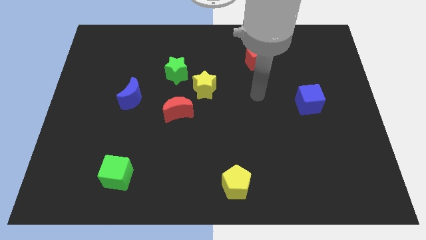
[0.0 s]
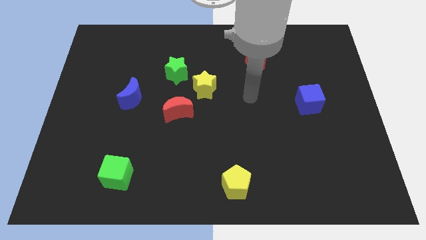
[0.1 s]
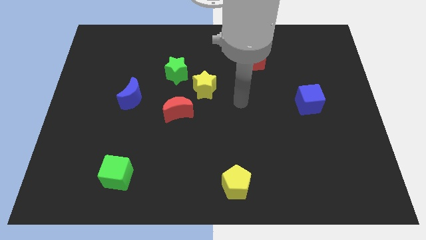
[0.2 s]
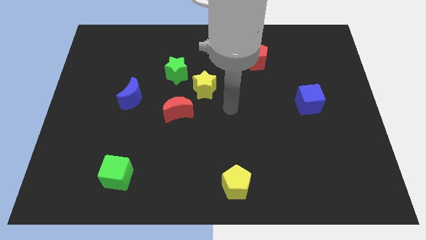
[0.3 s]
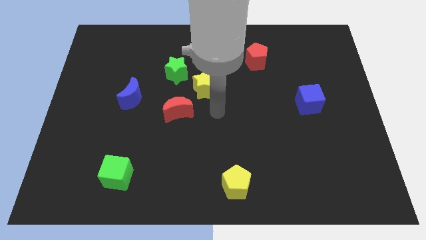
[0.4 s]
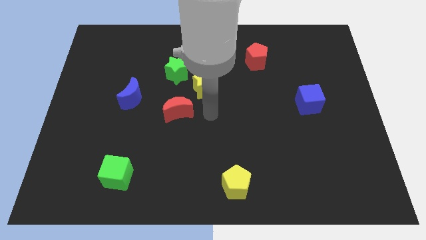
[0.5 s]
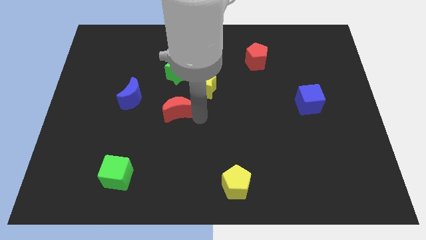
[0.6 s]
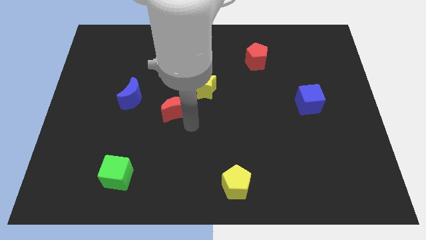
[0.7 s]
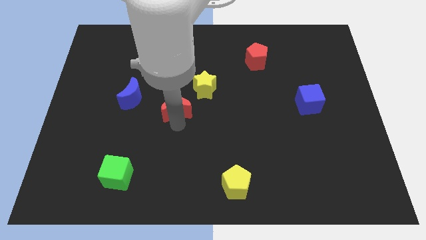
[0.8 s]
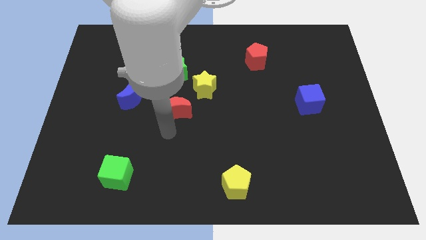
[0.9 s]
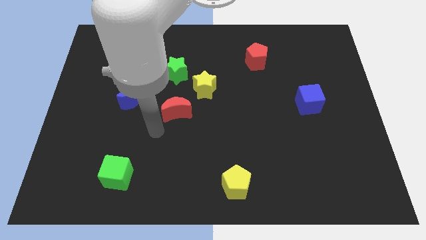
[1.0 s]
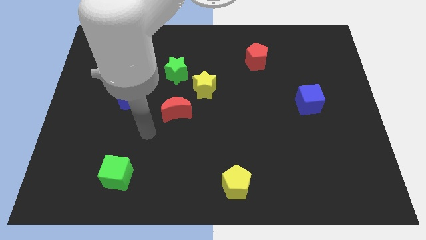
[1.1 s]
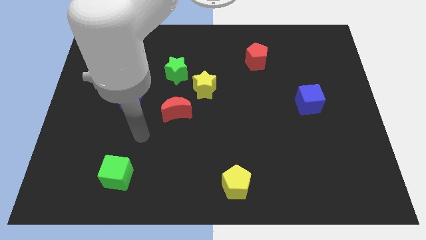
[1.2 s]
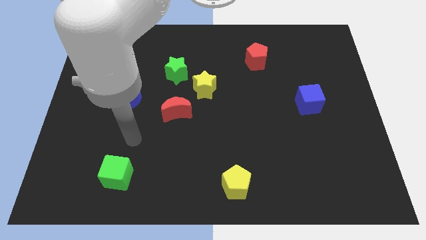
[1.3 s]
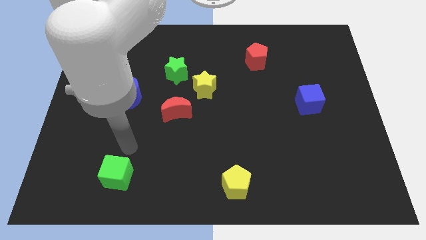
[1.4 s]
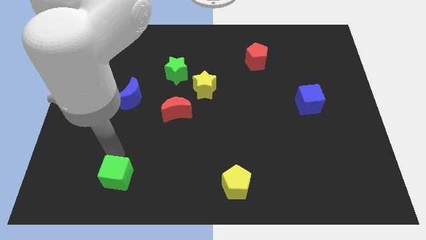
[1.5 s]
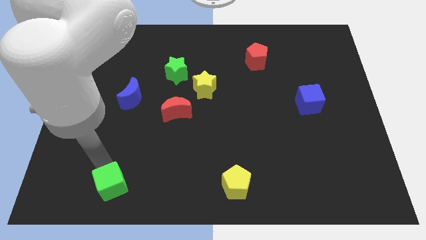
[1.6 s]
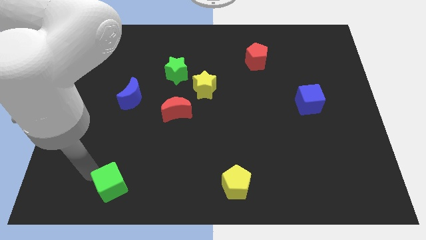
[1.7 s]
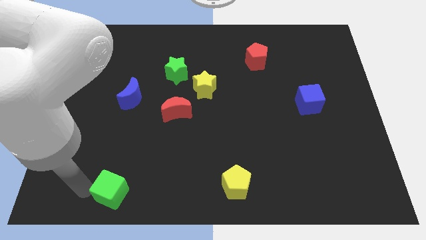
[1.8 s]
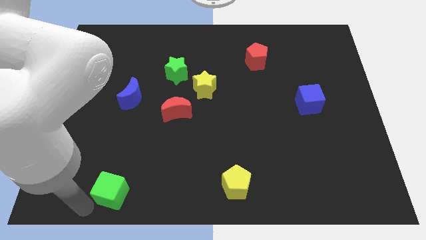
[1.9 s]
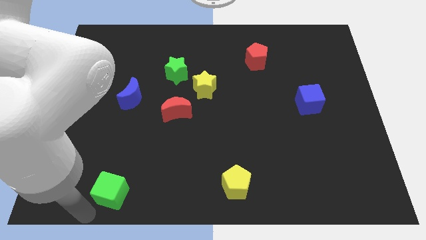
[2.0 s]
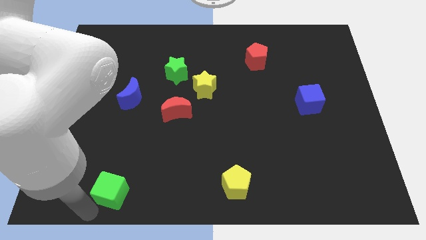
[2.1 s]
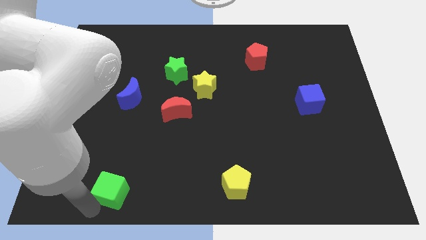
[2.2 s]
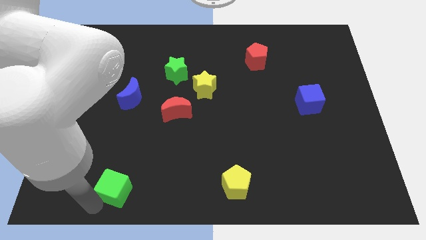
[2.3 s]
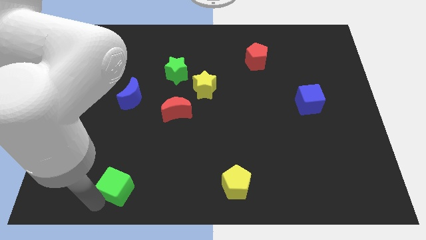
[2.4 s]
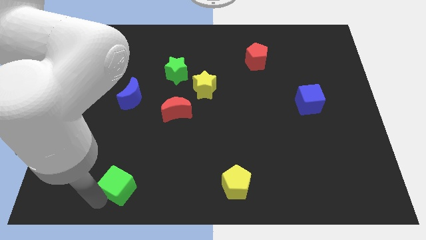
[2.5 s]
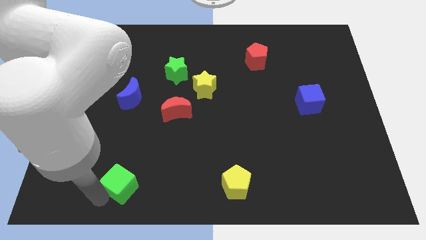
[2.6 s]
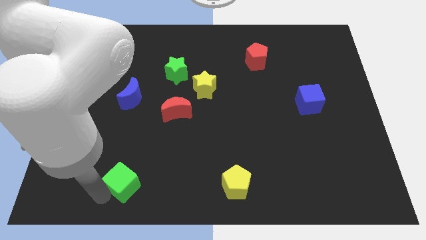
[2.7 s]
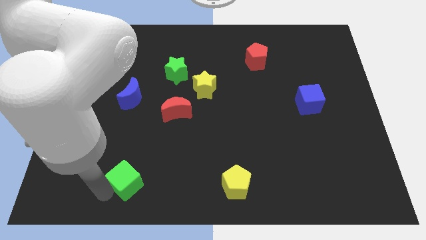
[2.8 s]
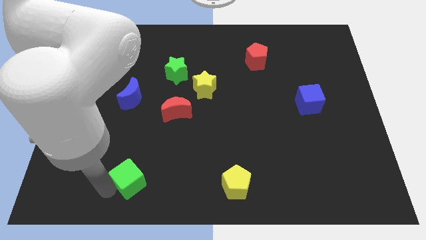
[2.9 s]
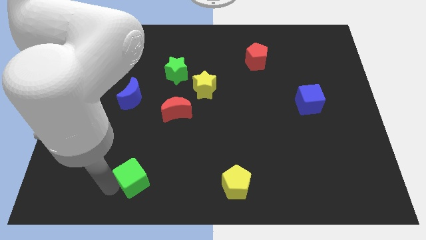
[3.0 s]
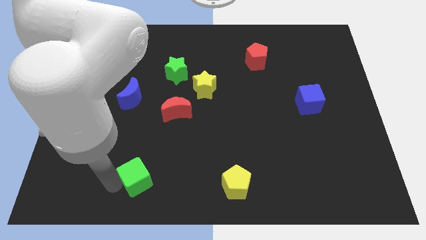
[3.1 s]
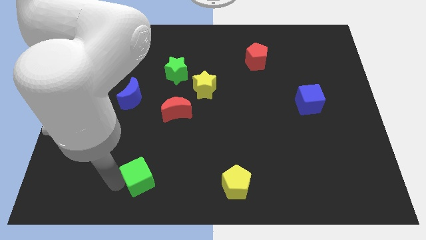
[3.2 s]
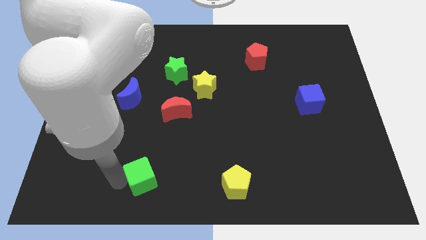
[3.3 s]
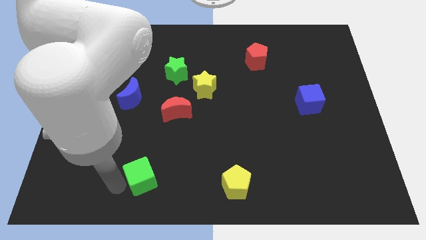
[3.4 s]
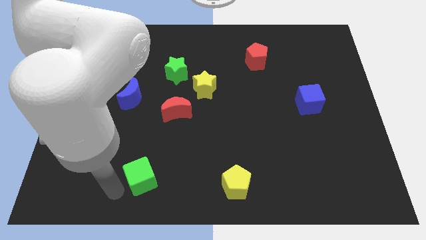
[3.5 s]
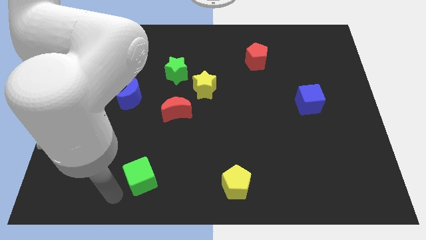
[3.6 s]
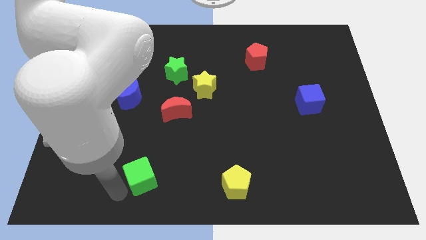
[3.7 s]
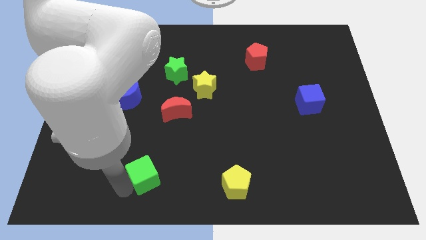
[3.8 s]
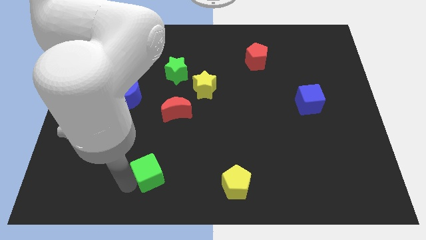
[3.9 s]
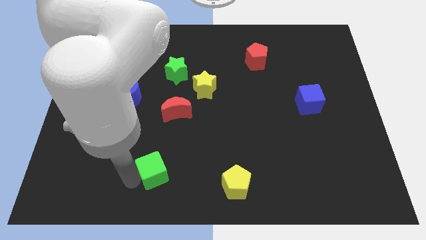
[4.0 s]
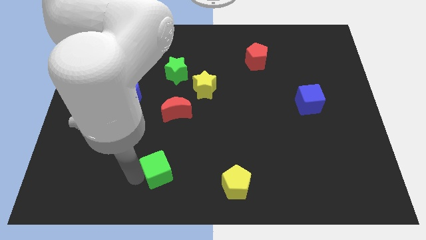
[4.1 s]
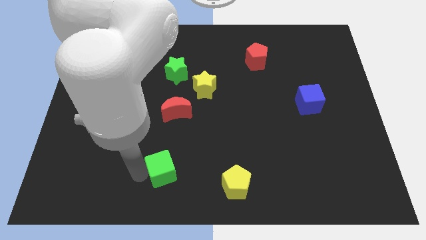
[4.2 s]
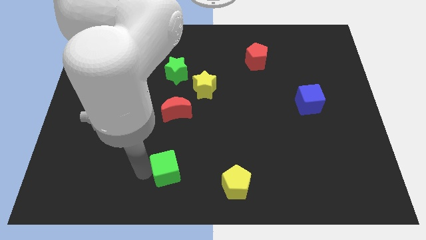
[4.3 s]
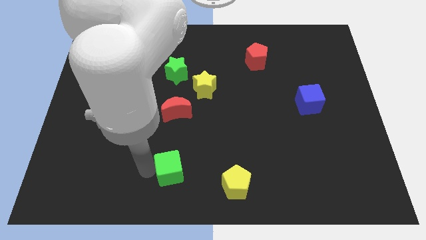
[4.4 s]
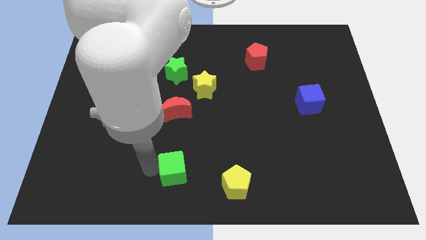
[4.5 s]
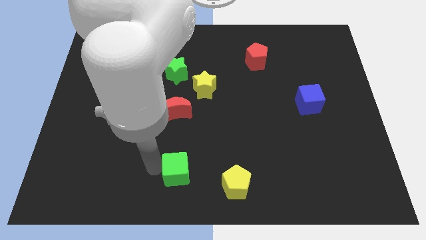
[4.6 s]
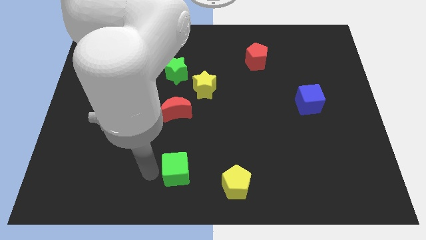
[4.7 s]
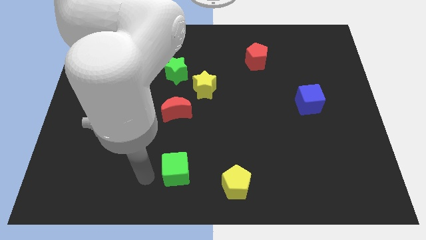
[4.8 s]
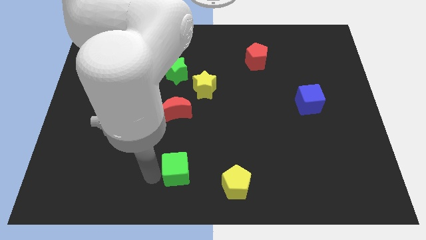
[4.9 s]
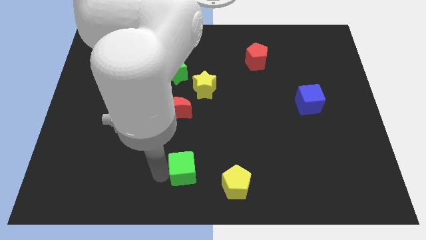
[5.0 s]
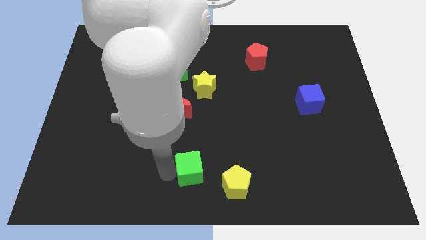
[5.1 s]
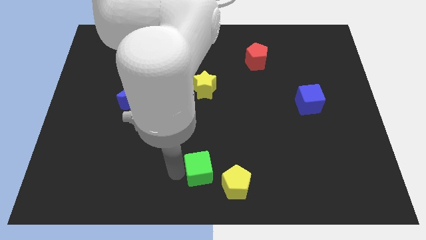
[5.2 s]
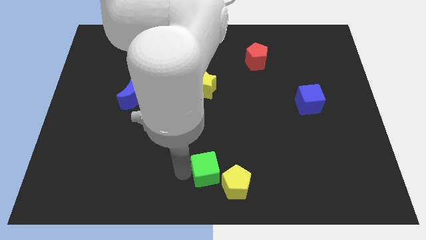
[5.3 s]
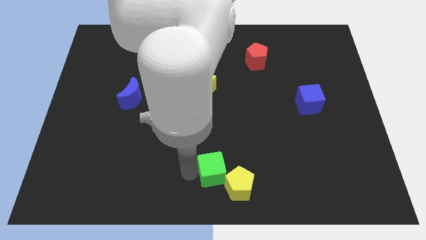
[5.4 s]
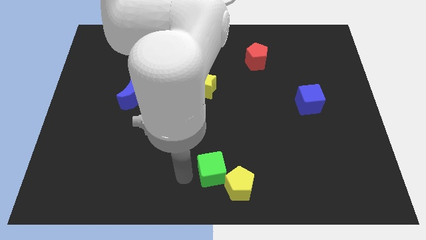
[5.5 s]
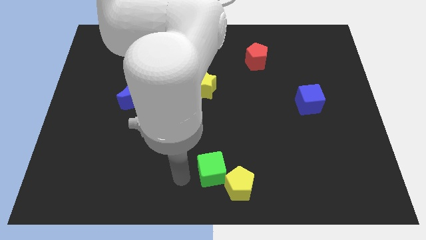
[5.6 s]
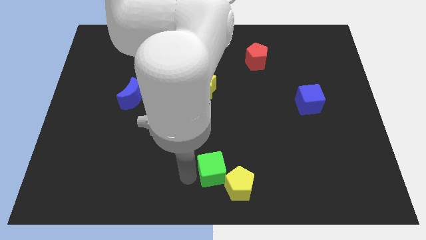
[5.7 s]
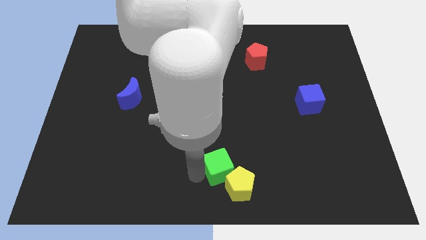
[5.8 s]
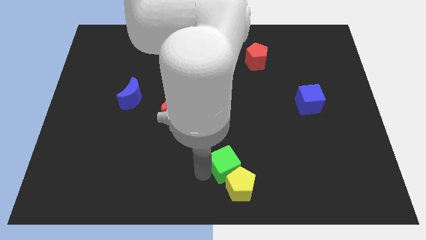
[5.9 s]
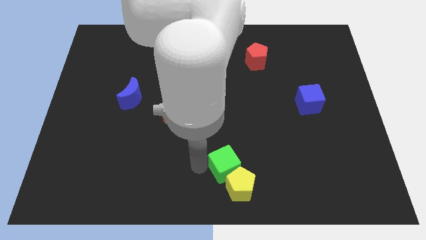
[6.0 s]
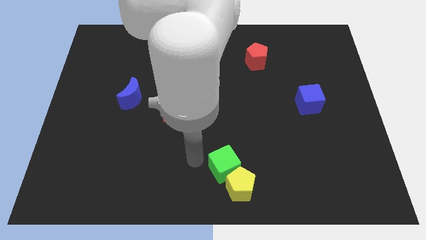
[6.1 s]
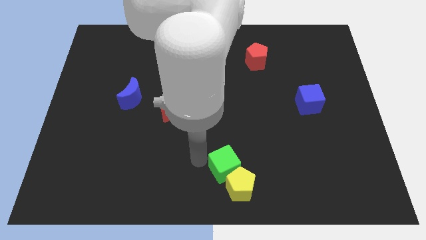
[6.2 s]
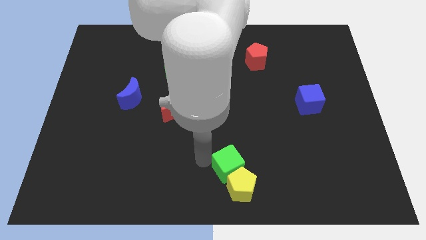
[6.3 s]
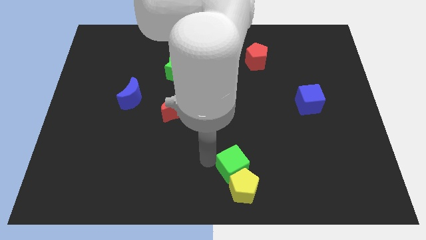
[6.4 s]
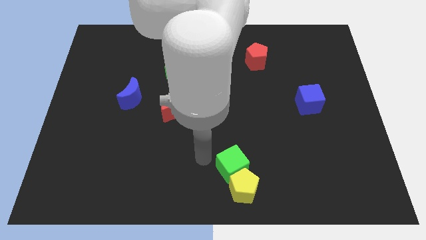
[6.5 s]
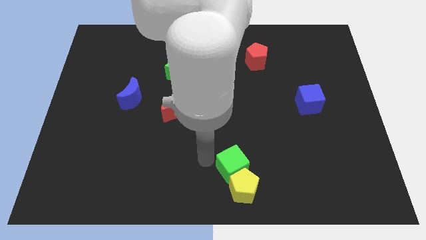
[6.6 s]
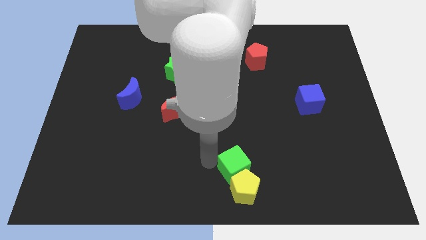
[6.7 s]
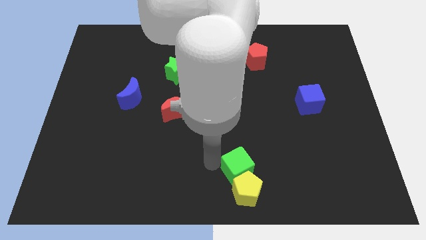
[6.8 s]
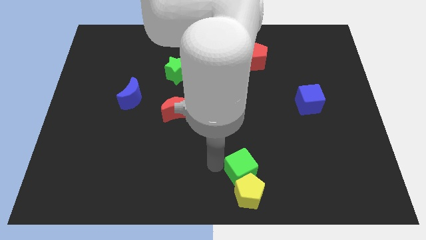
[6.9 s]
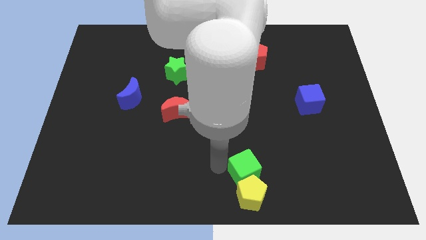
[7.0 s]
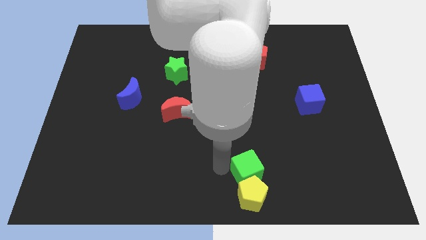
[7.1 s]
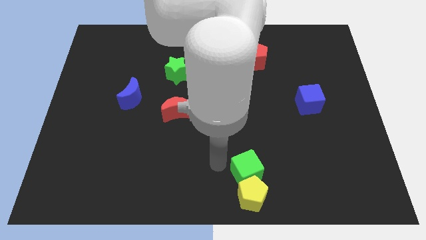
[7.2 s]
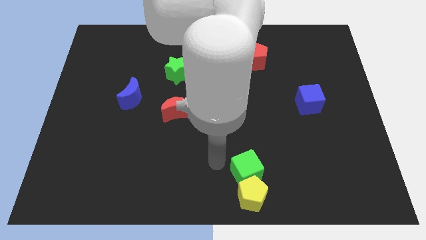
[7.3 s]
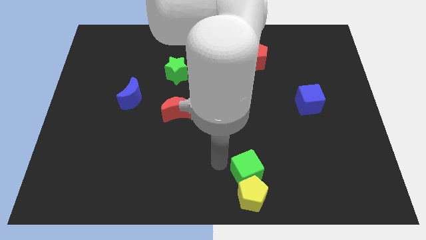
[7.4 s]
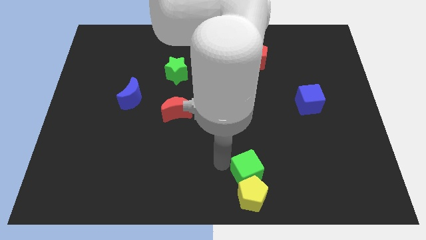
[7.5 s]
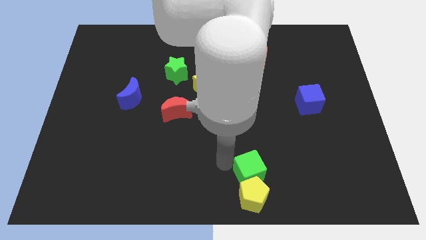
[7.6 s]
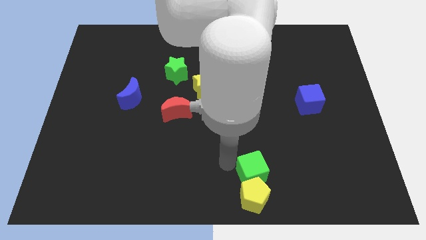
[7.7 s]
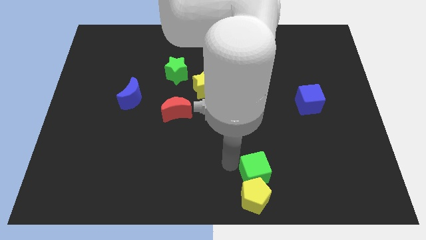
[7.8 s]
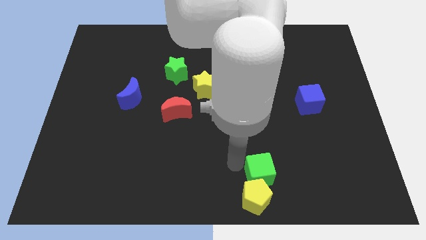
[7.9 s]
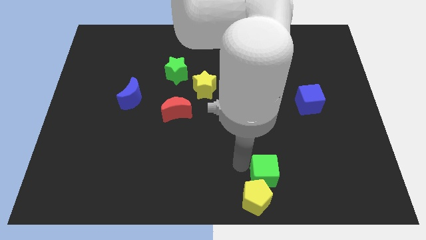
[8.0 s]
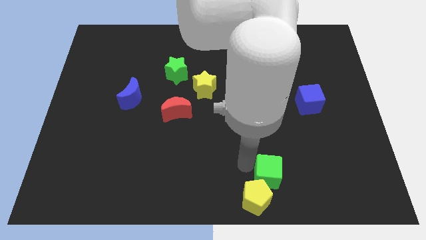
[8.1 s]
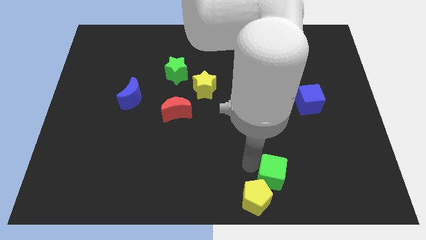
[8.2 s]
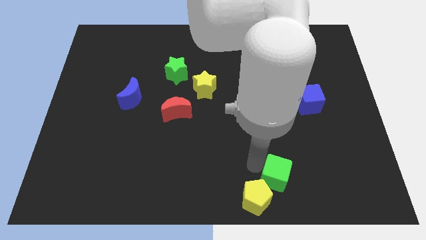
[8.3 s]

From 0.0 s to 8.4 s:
push the green cube to the right of the yellow pentagon
